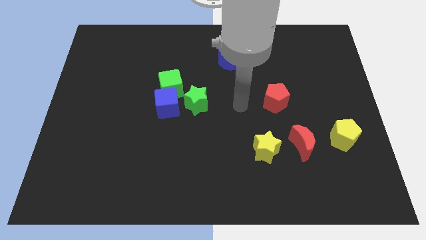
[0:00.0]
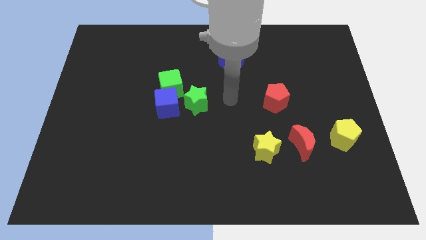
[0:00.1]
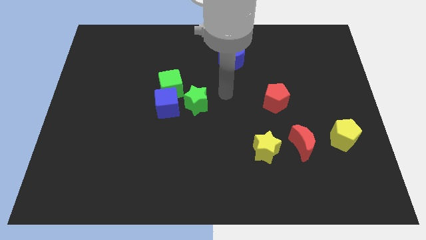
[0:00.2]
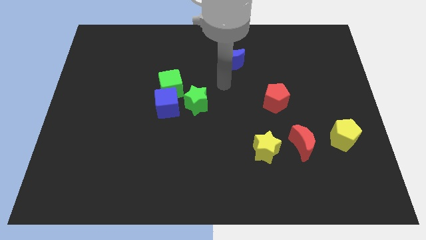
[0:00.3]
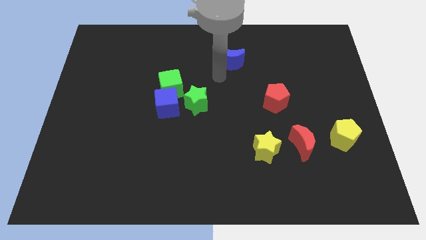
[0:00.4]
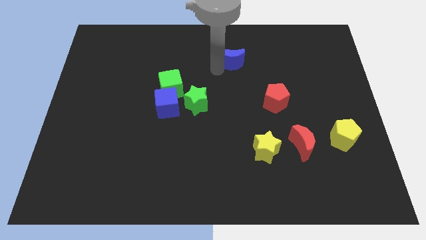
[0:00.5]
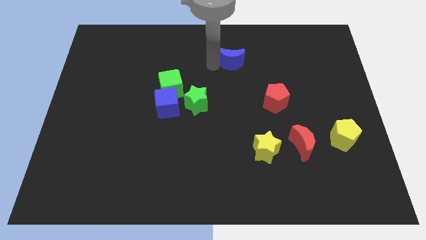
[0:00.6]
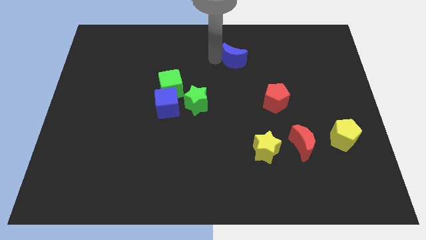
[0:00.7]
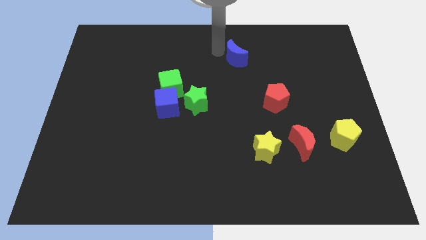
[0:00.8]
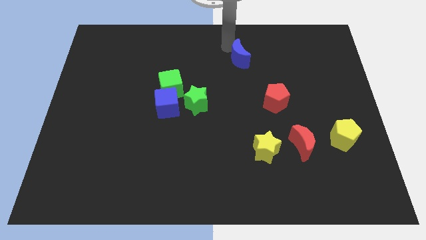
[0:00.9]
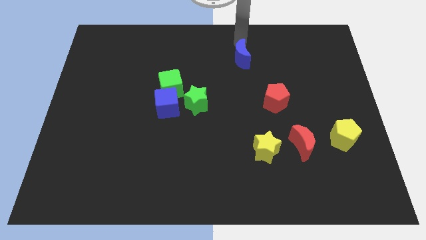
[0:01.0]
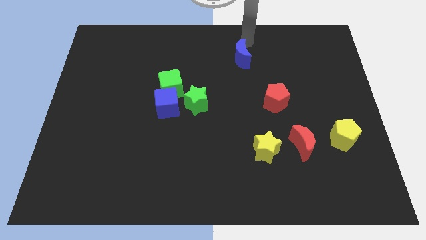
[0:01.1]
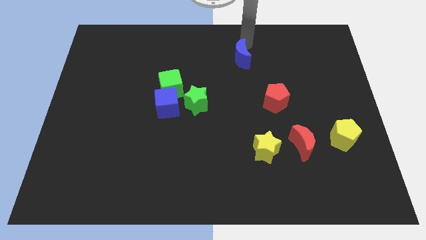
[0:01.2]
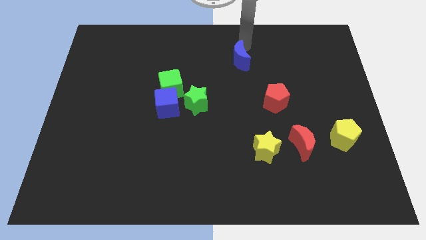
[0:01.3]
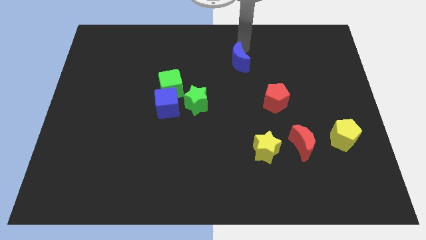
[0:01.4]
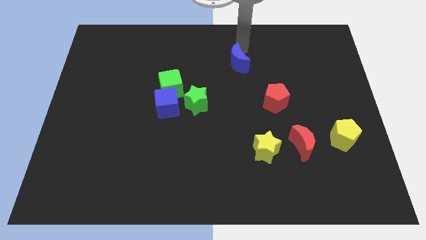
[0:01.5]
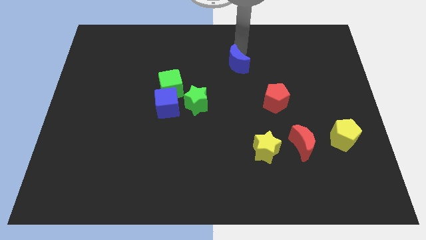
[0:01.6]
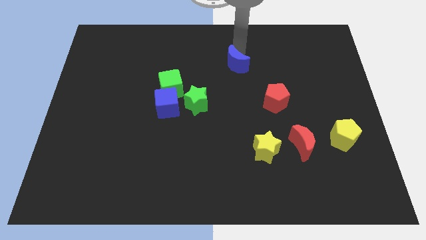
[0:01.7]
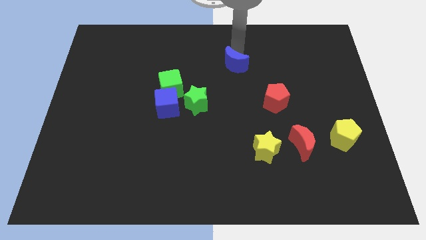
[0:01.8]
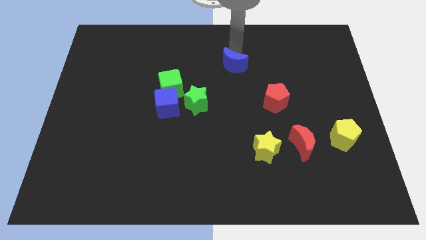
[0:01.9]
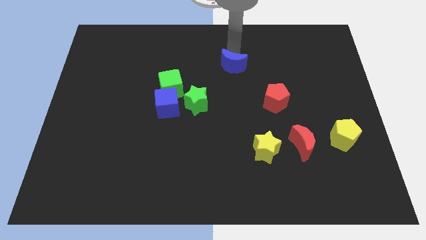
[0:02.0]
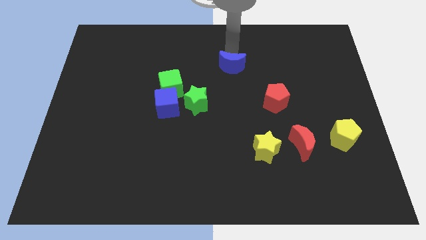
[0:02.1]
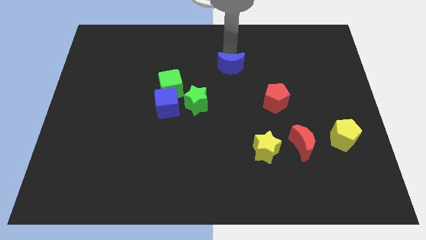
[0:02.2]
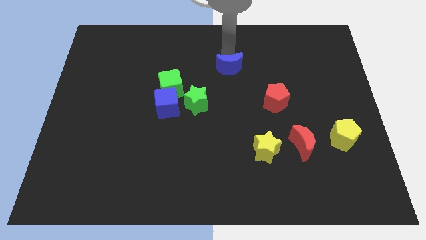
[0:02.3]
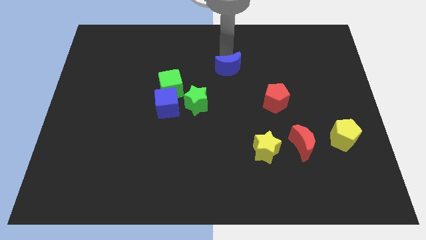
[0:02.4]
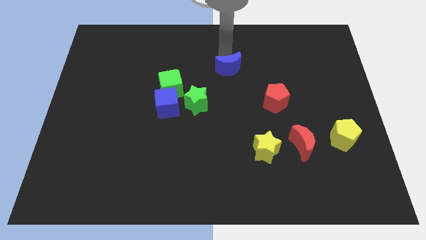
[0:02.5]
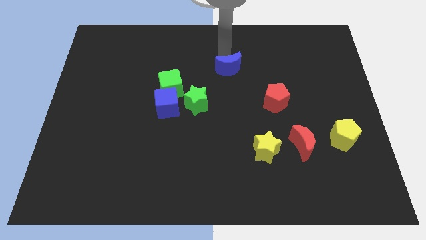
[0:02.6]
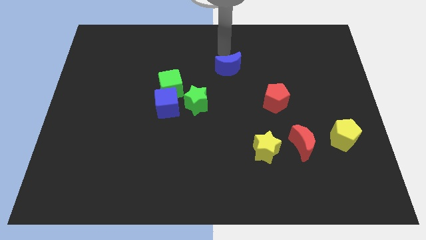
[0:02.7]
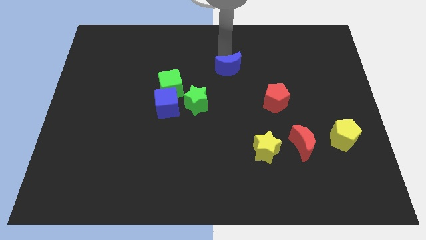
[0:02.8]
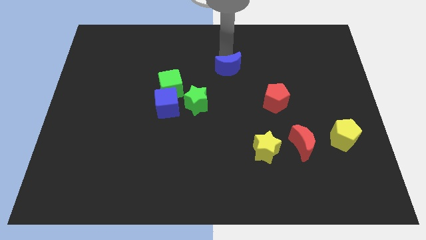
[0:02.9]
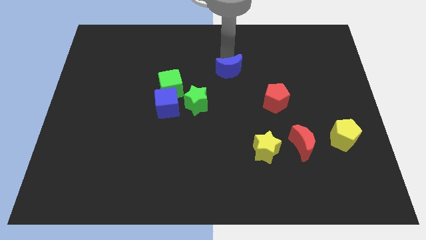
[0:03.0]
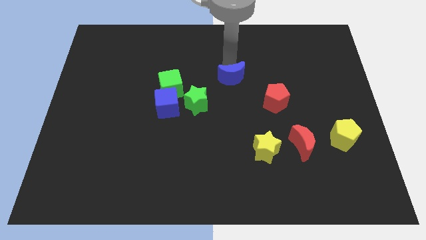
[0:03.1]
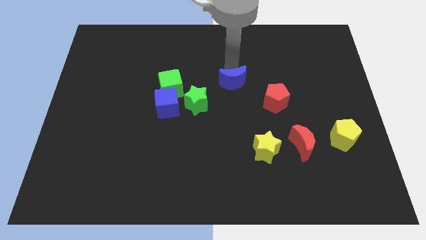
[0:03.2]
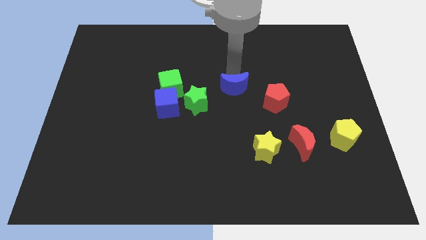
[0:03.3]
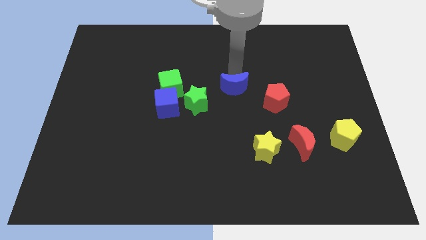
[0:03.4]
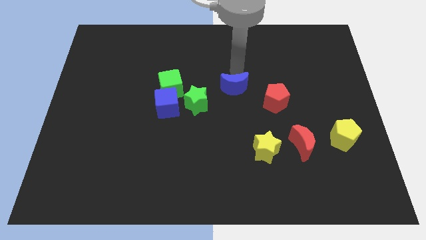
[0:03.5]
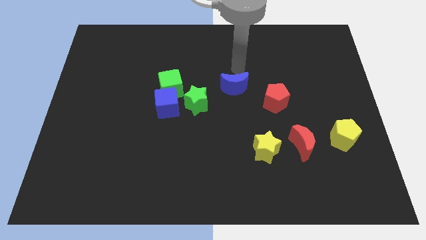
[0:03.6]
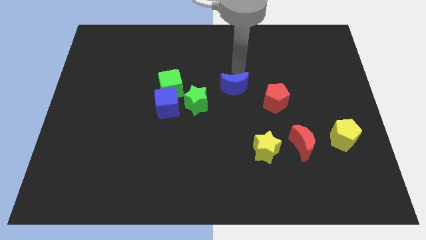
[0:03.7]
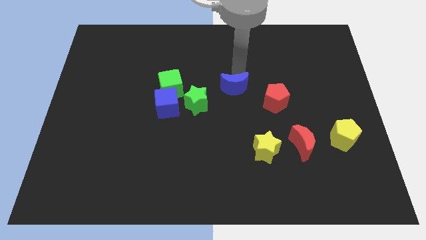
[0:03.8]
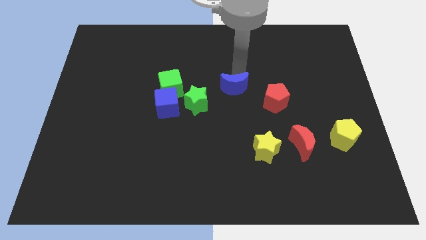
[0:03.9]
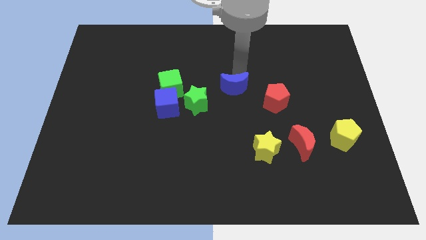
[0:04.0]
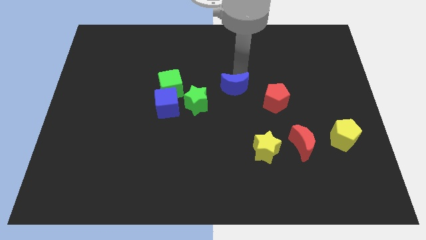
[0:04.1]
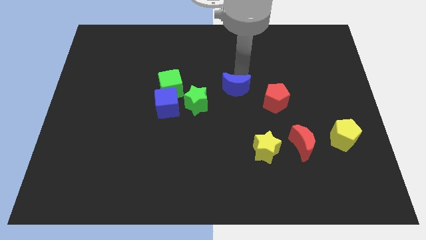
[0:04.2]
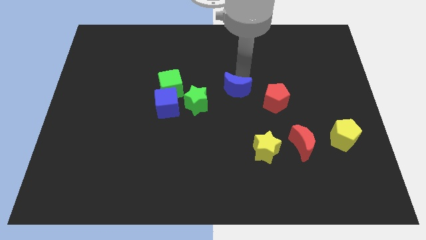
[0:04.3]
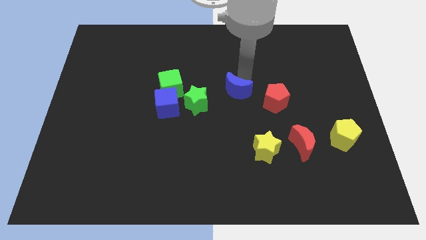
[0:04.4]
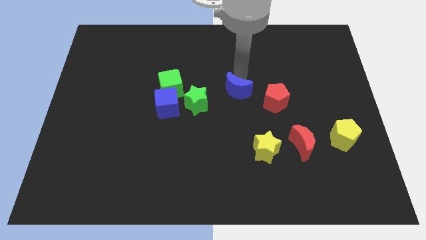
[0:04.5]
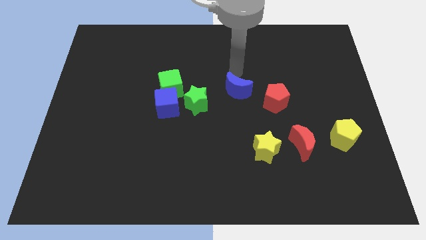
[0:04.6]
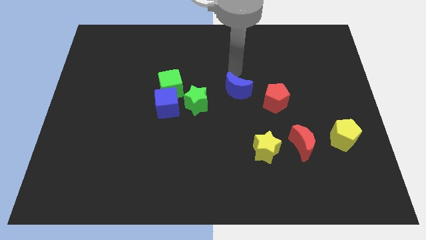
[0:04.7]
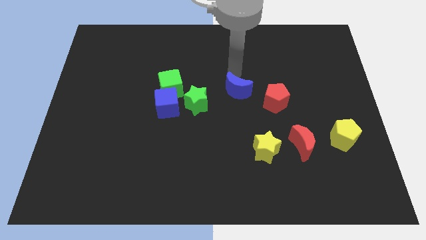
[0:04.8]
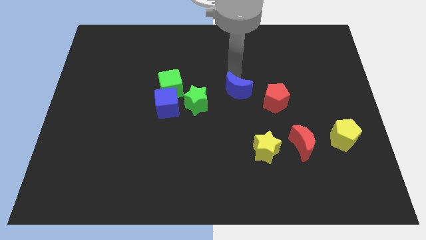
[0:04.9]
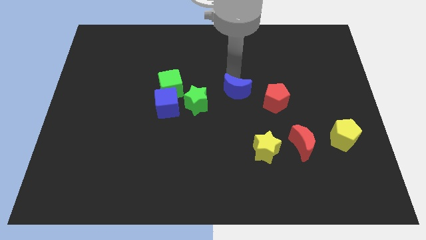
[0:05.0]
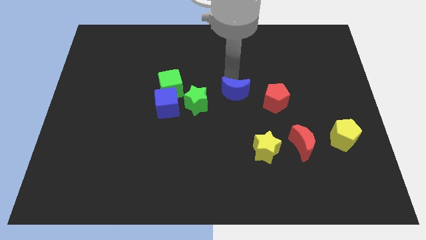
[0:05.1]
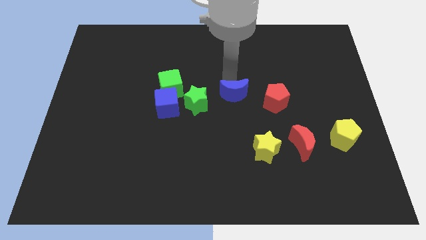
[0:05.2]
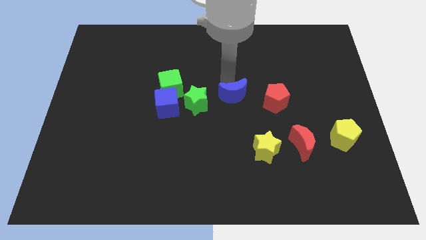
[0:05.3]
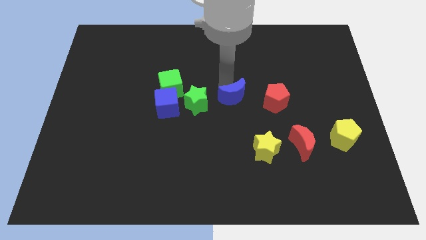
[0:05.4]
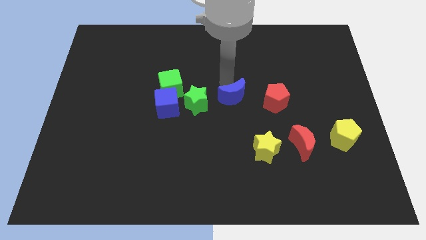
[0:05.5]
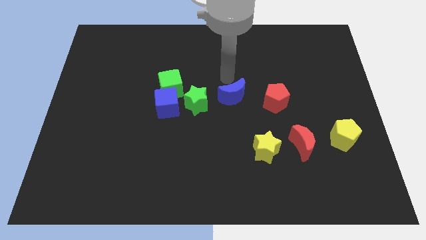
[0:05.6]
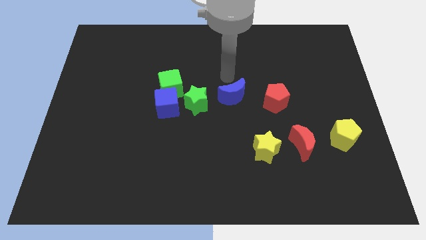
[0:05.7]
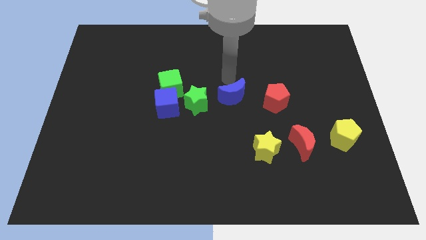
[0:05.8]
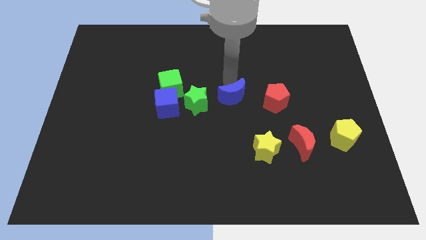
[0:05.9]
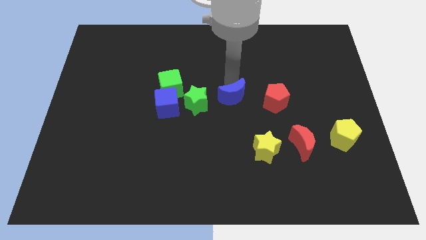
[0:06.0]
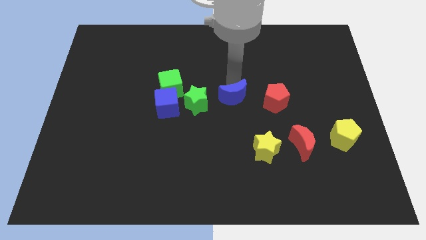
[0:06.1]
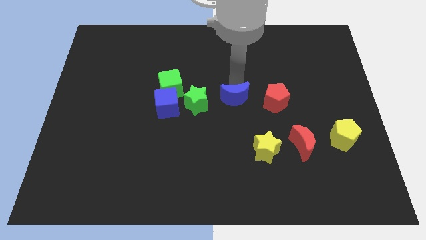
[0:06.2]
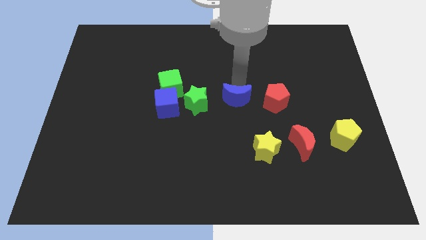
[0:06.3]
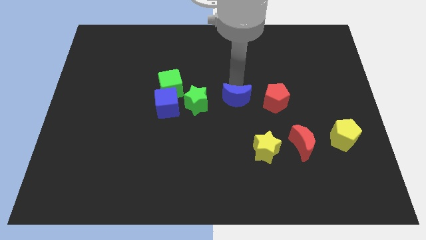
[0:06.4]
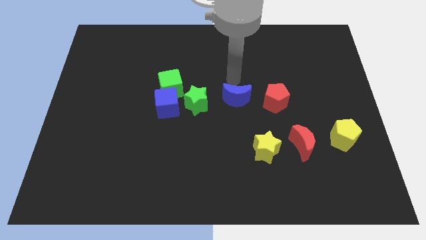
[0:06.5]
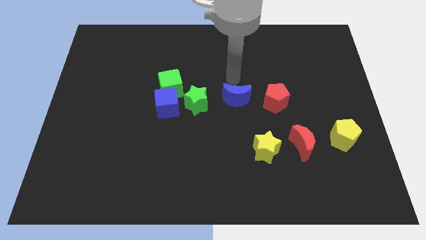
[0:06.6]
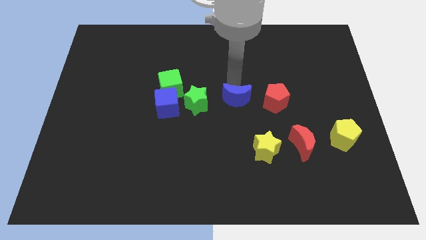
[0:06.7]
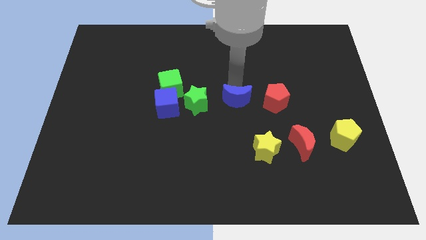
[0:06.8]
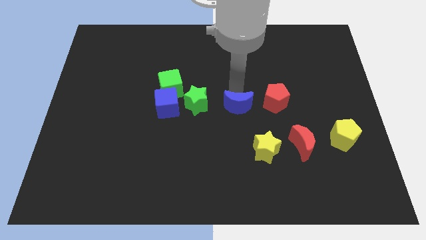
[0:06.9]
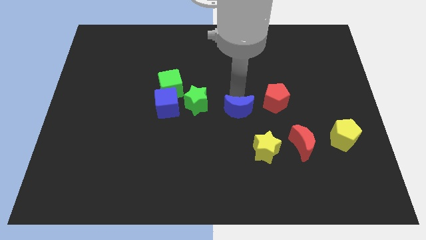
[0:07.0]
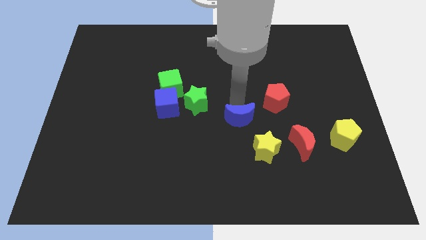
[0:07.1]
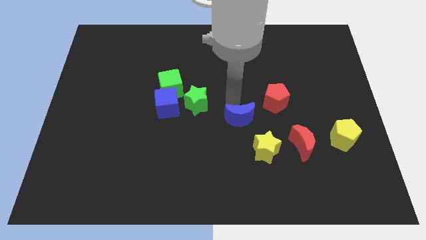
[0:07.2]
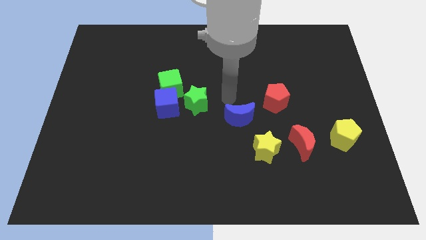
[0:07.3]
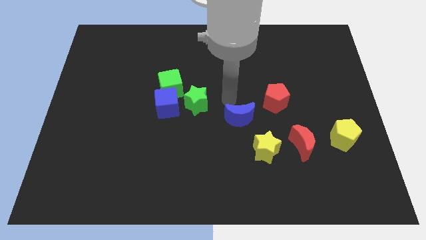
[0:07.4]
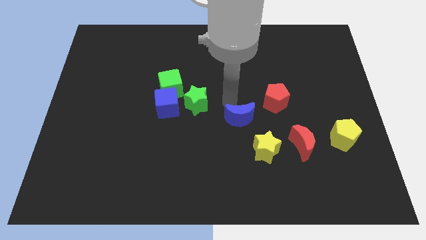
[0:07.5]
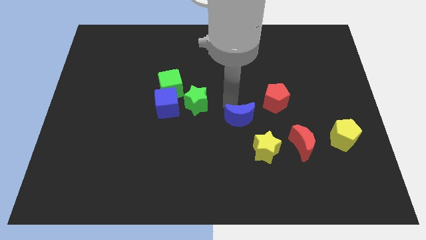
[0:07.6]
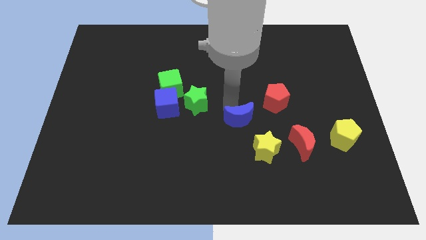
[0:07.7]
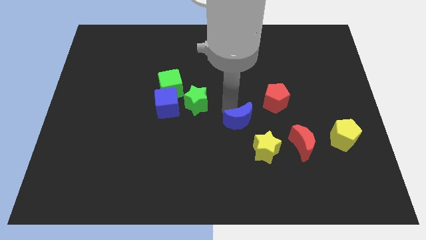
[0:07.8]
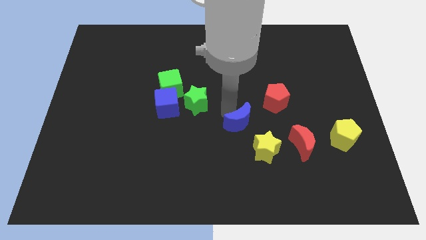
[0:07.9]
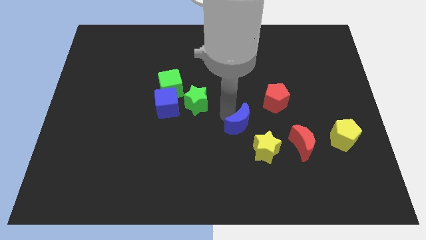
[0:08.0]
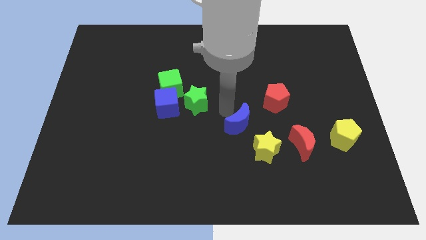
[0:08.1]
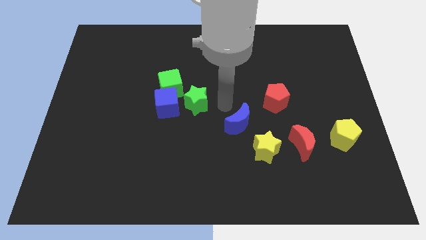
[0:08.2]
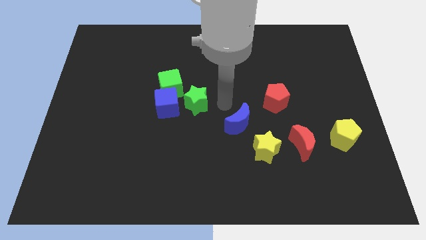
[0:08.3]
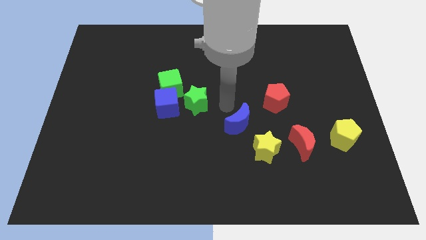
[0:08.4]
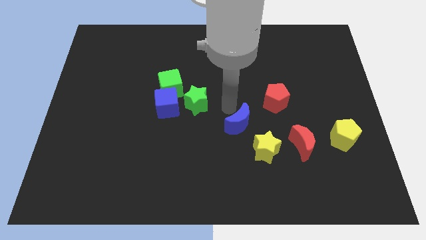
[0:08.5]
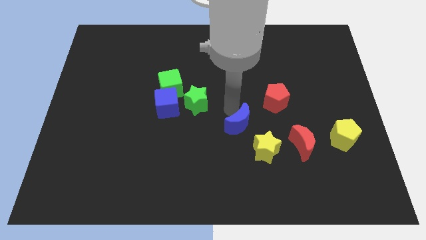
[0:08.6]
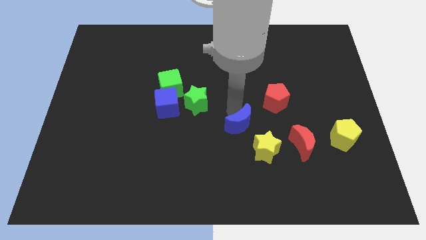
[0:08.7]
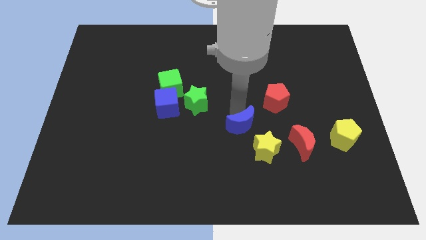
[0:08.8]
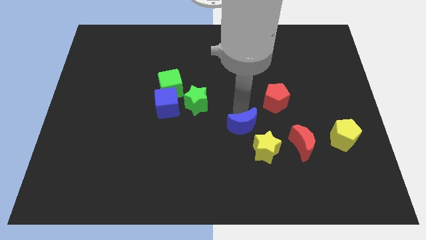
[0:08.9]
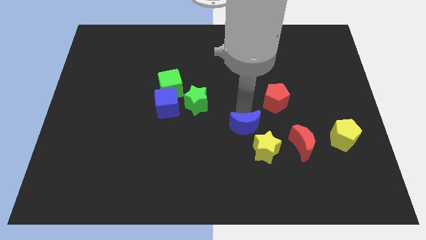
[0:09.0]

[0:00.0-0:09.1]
slide the blue moon left of the red moon
